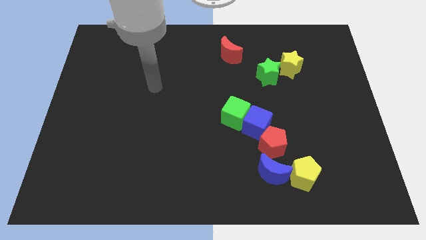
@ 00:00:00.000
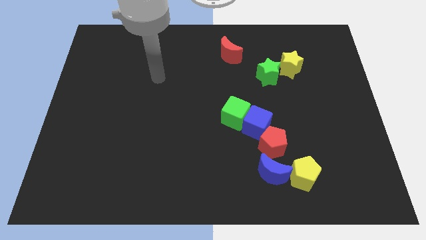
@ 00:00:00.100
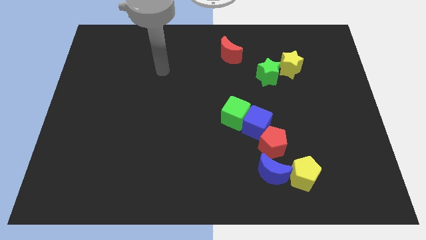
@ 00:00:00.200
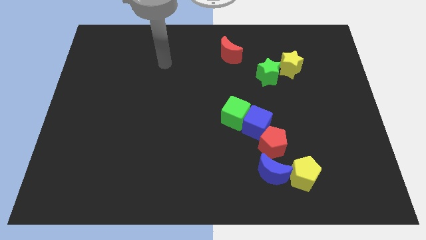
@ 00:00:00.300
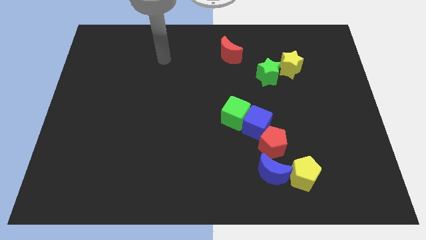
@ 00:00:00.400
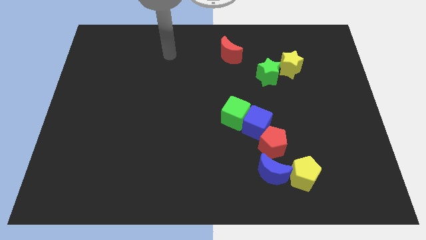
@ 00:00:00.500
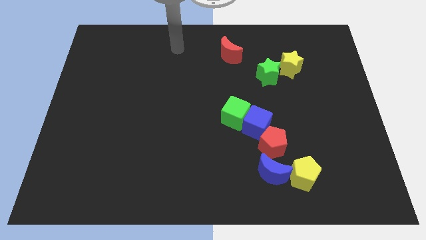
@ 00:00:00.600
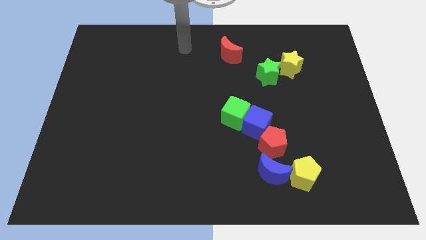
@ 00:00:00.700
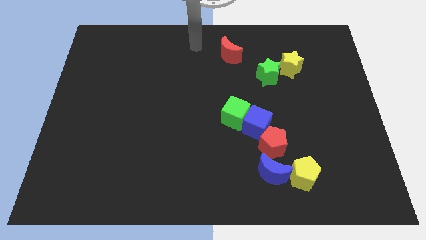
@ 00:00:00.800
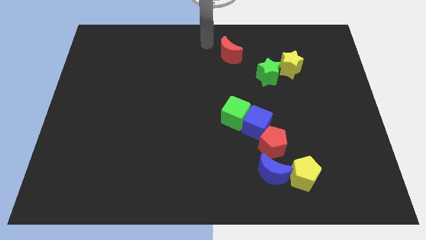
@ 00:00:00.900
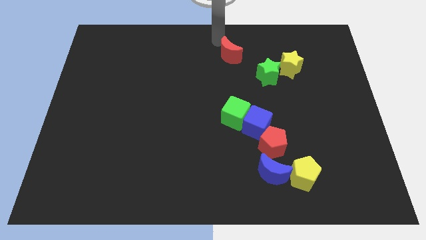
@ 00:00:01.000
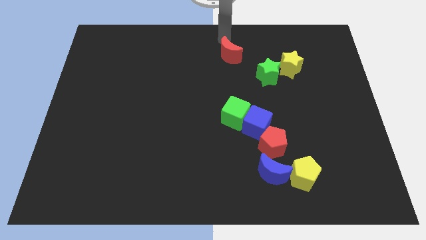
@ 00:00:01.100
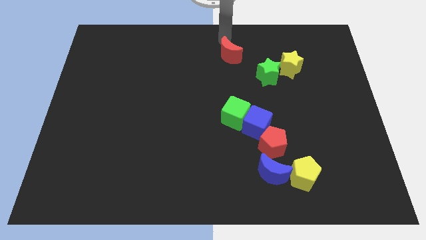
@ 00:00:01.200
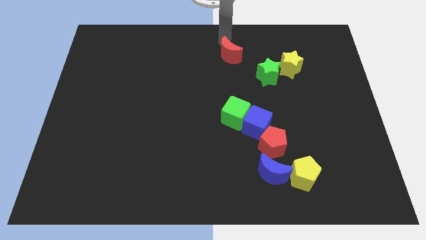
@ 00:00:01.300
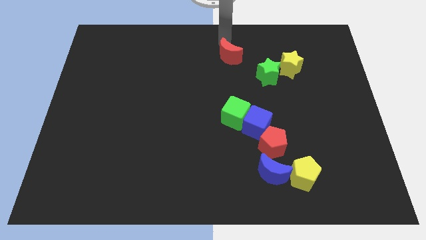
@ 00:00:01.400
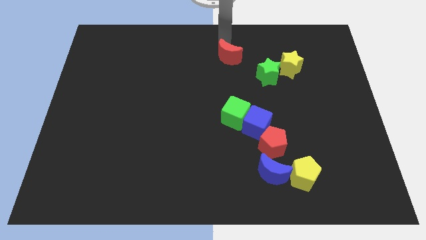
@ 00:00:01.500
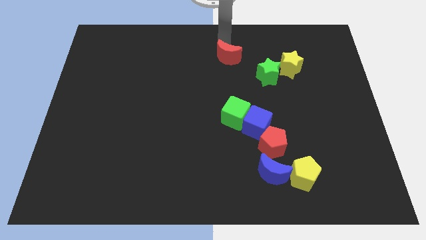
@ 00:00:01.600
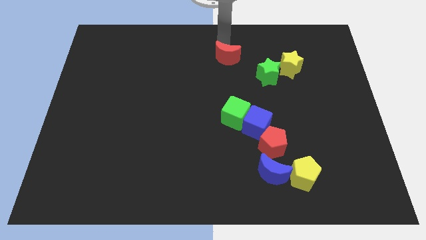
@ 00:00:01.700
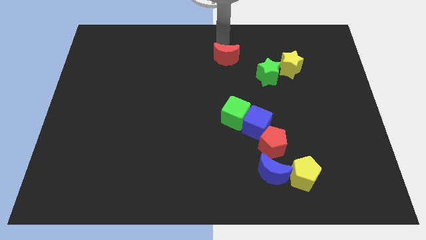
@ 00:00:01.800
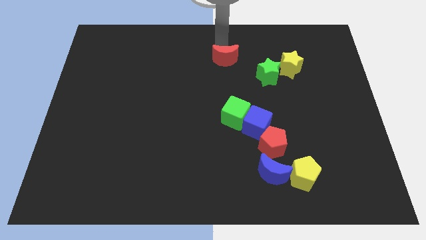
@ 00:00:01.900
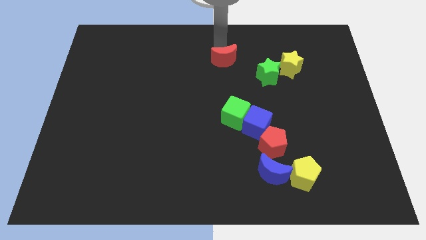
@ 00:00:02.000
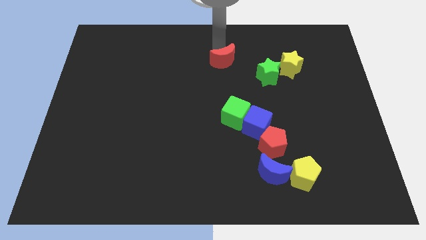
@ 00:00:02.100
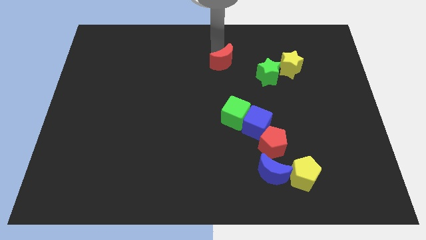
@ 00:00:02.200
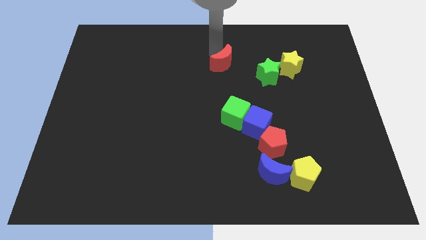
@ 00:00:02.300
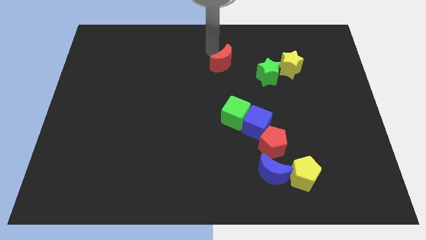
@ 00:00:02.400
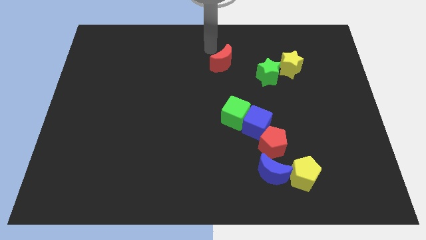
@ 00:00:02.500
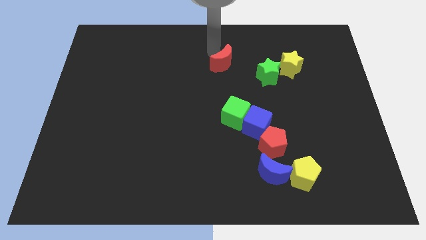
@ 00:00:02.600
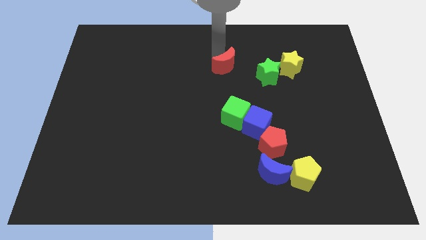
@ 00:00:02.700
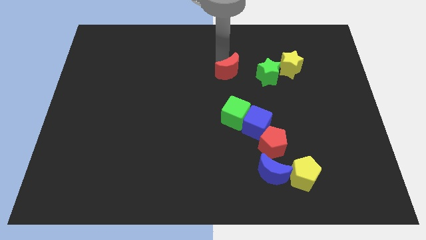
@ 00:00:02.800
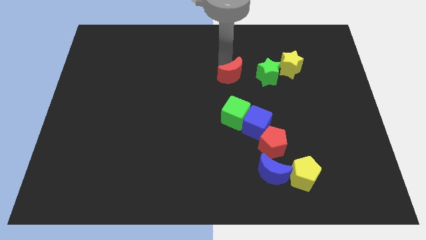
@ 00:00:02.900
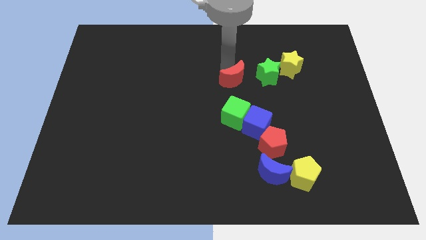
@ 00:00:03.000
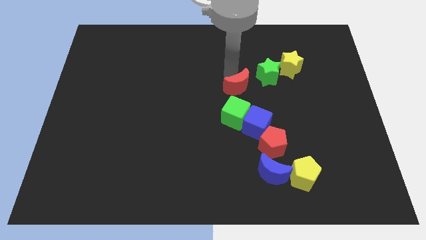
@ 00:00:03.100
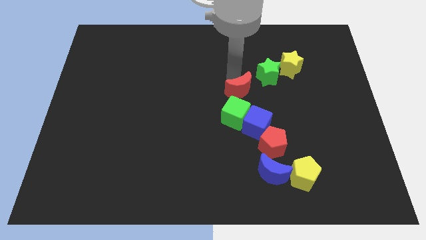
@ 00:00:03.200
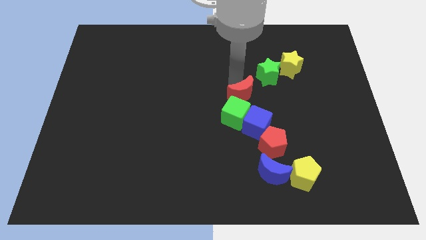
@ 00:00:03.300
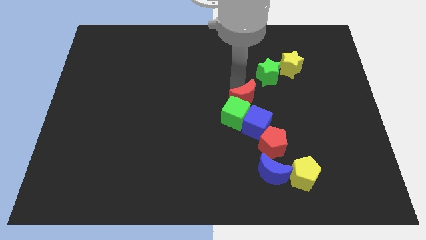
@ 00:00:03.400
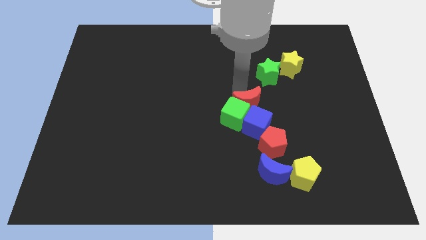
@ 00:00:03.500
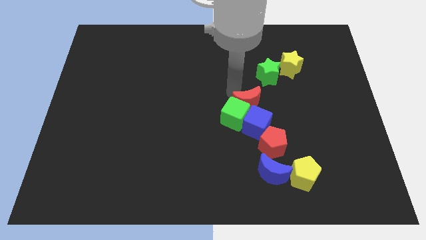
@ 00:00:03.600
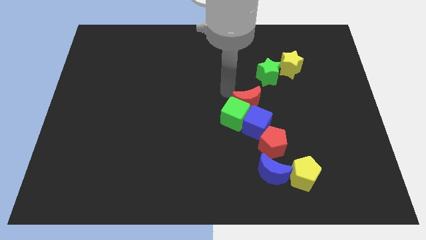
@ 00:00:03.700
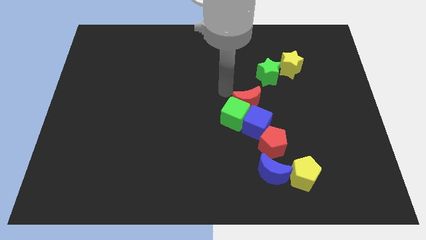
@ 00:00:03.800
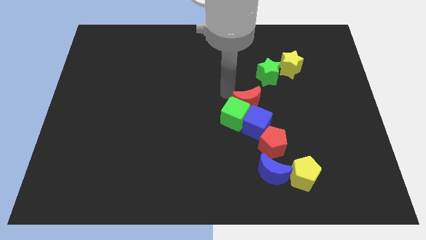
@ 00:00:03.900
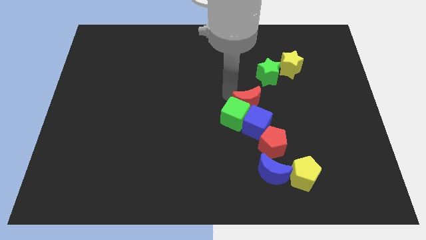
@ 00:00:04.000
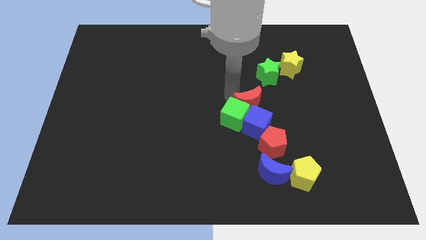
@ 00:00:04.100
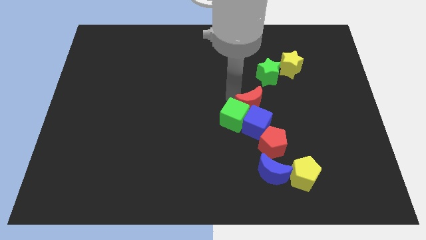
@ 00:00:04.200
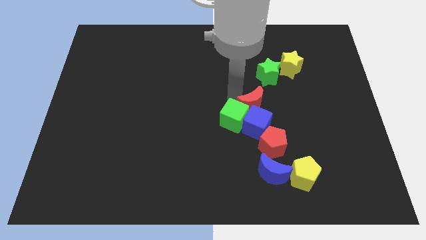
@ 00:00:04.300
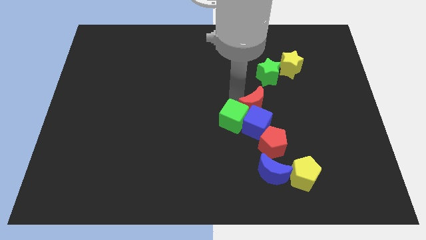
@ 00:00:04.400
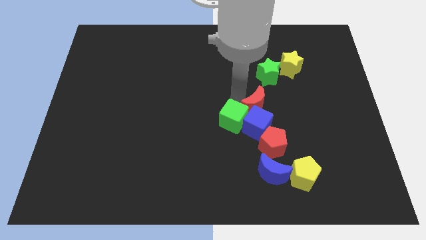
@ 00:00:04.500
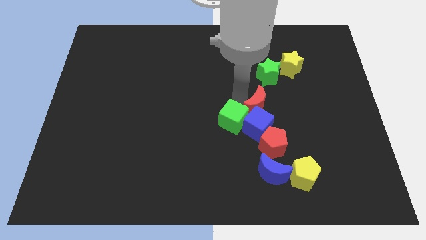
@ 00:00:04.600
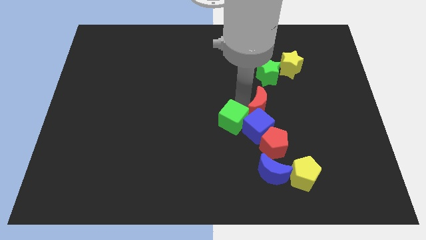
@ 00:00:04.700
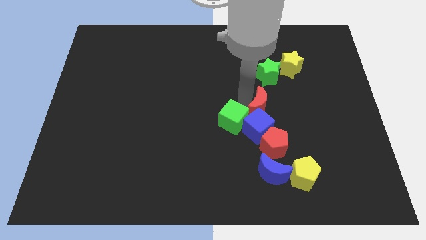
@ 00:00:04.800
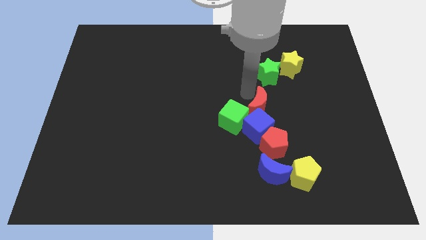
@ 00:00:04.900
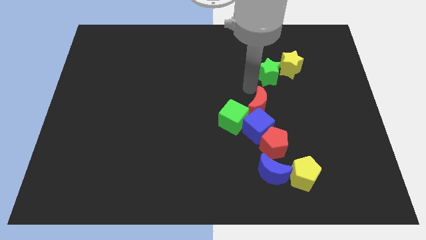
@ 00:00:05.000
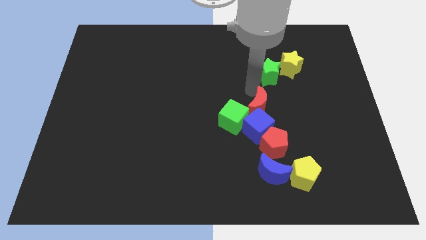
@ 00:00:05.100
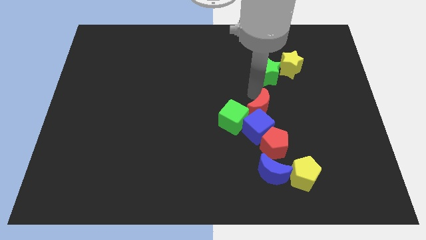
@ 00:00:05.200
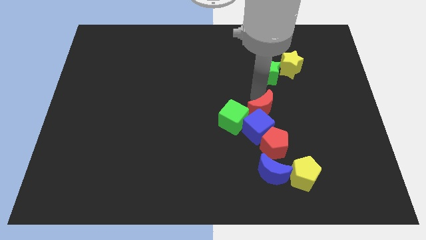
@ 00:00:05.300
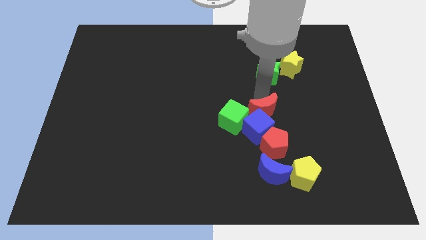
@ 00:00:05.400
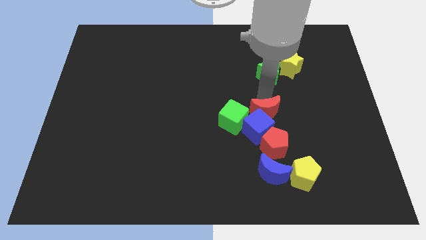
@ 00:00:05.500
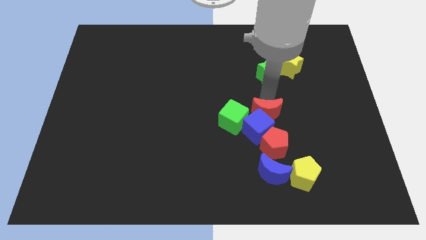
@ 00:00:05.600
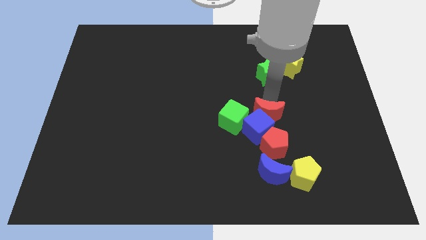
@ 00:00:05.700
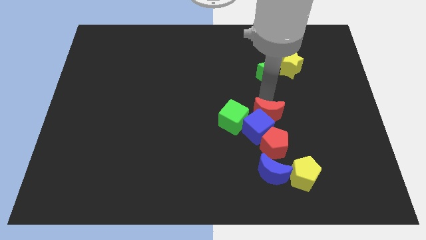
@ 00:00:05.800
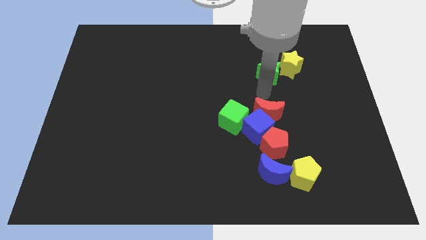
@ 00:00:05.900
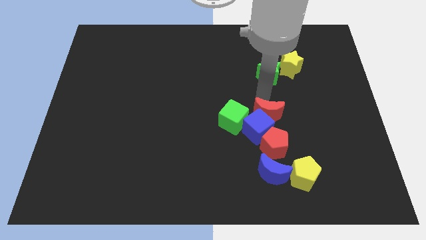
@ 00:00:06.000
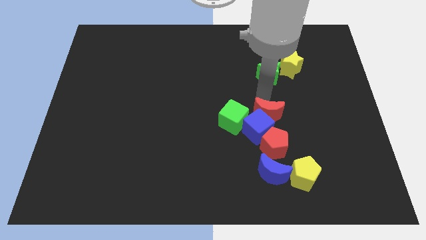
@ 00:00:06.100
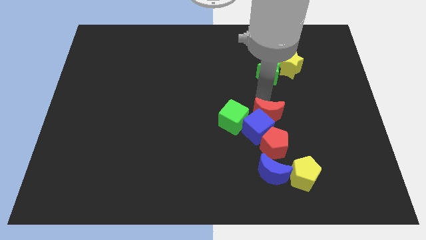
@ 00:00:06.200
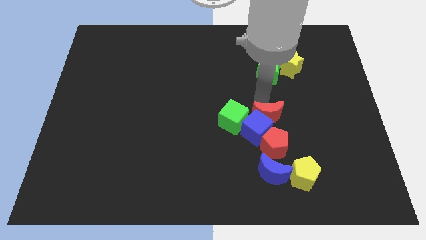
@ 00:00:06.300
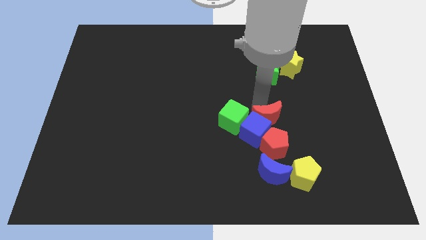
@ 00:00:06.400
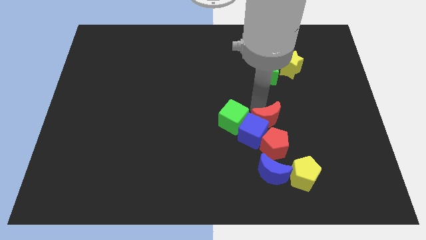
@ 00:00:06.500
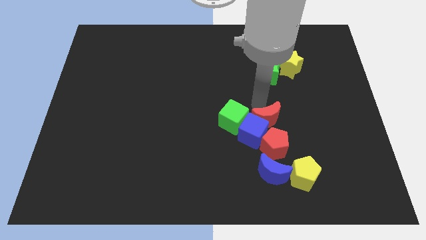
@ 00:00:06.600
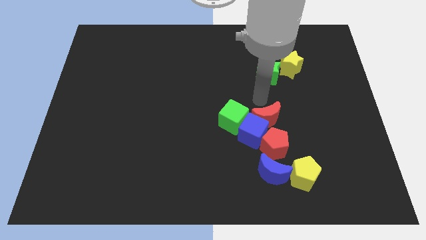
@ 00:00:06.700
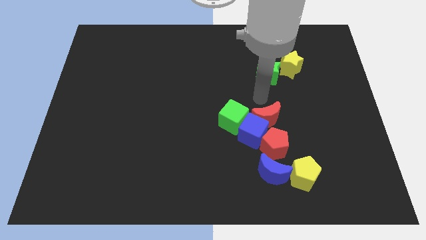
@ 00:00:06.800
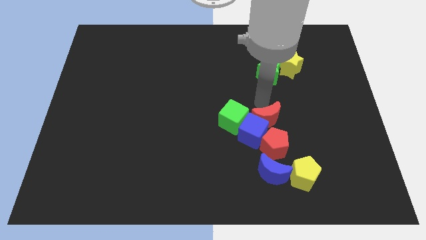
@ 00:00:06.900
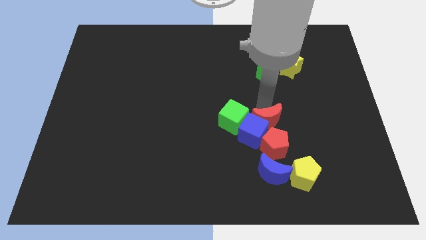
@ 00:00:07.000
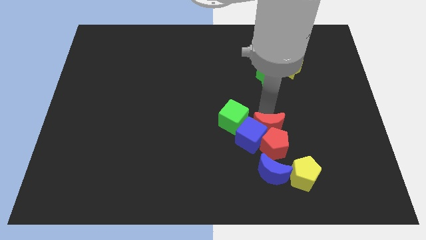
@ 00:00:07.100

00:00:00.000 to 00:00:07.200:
move the red moon close to the red pentagon

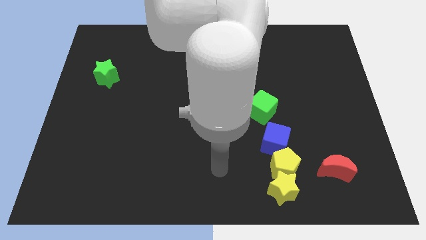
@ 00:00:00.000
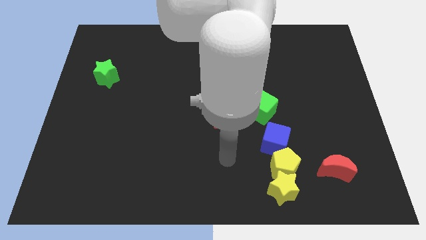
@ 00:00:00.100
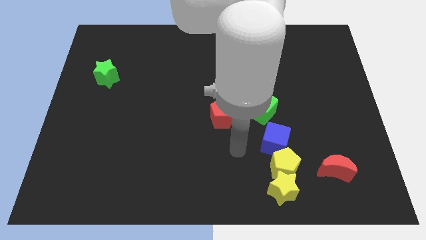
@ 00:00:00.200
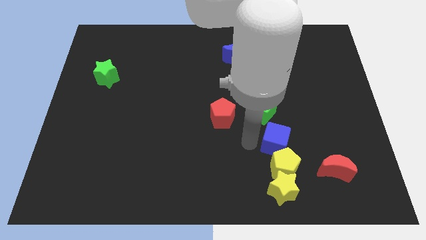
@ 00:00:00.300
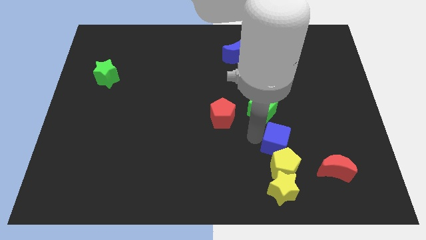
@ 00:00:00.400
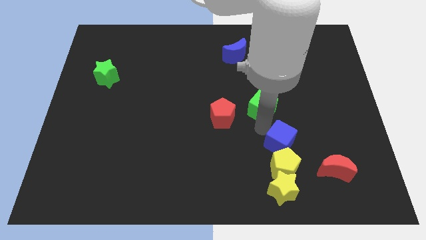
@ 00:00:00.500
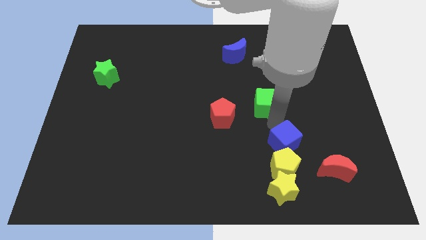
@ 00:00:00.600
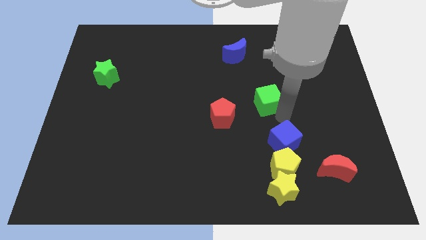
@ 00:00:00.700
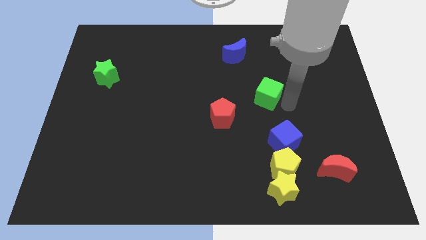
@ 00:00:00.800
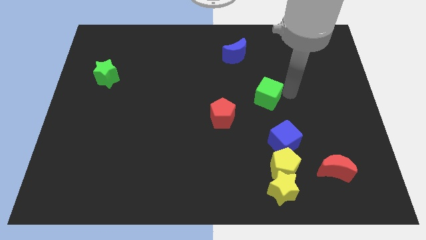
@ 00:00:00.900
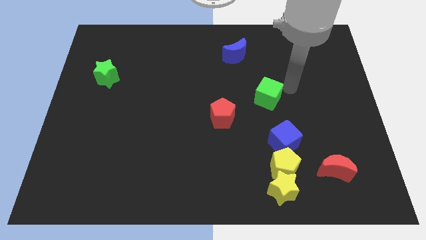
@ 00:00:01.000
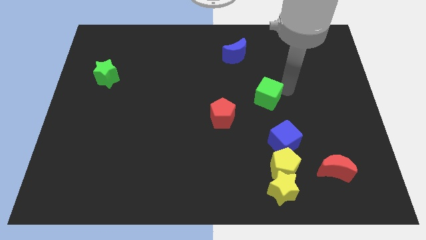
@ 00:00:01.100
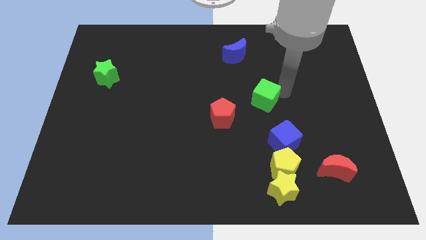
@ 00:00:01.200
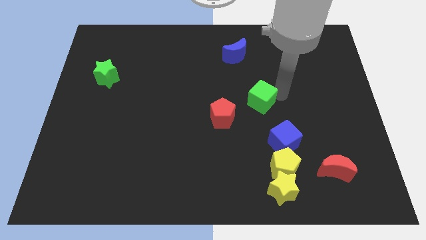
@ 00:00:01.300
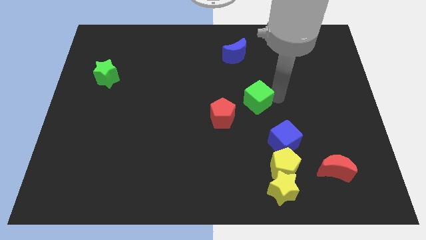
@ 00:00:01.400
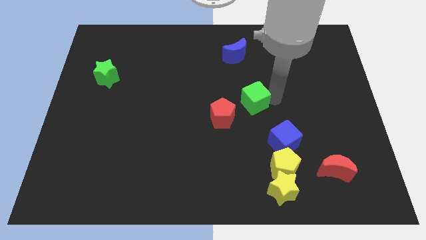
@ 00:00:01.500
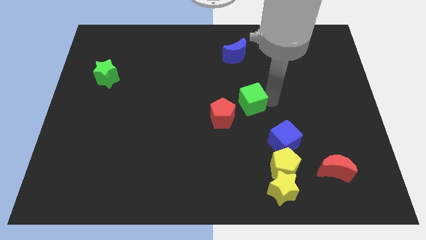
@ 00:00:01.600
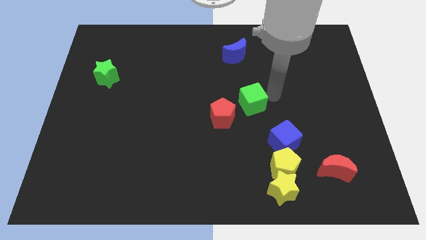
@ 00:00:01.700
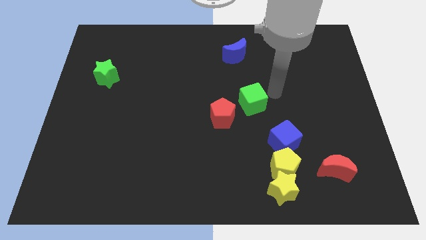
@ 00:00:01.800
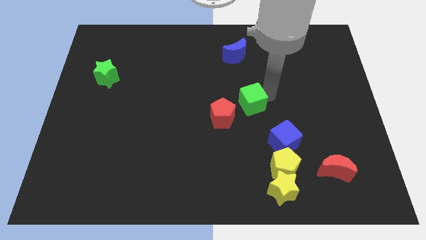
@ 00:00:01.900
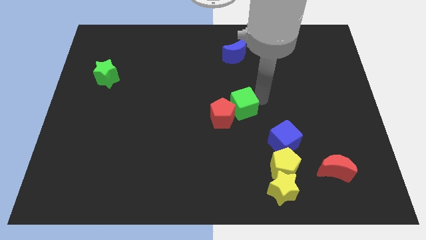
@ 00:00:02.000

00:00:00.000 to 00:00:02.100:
push the green cube to the red pentagon
